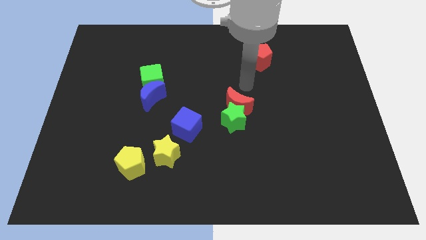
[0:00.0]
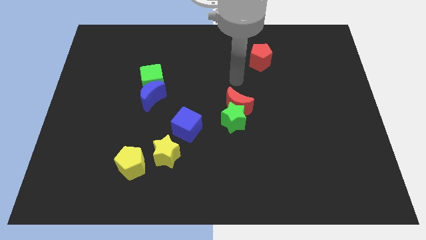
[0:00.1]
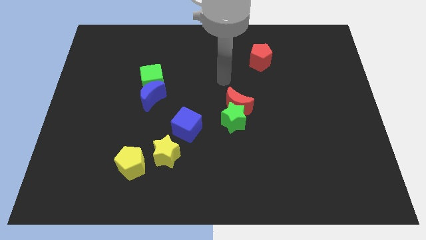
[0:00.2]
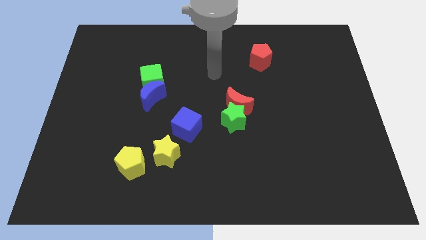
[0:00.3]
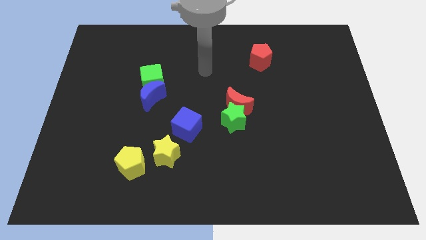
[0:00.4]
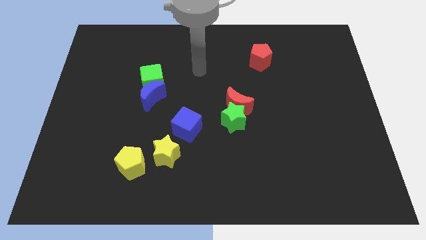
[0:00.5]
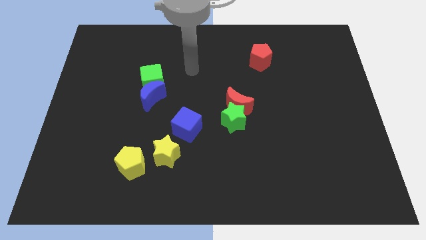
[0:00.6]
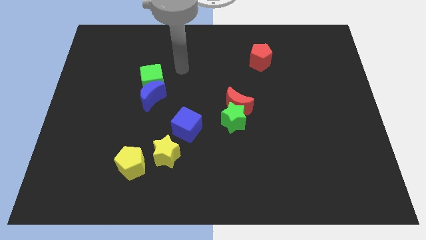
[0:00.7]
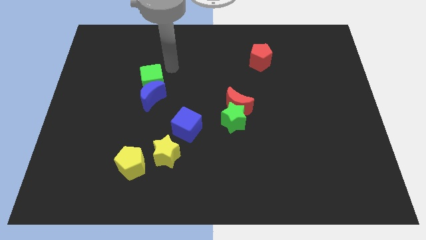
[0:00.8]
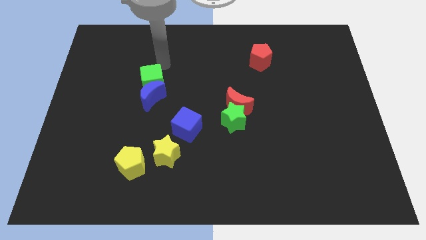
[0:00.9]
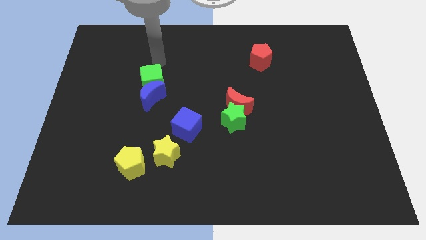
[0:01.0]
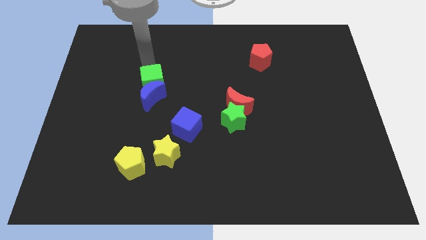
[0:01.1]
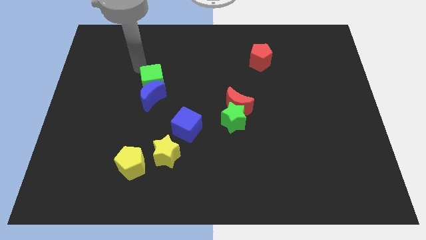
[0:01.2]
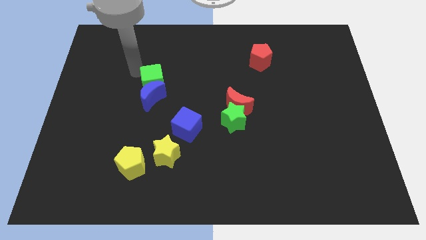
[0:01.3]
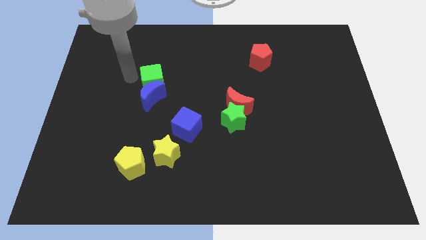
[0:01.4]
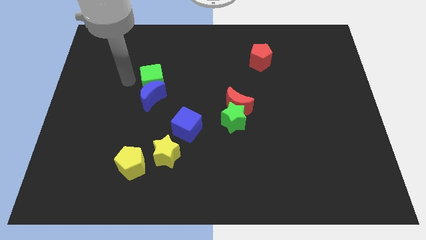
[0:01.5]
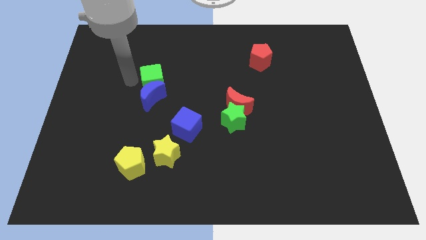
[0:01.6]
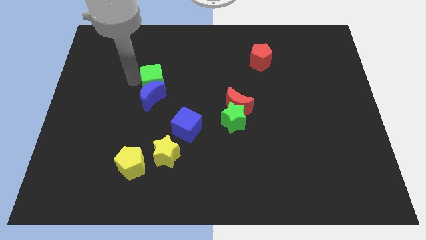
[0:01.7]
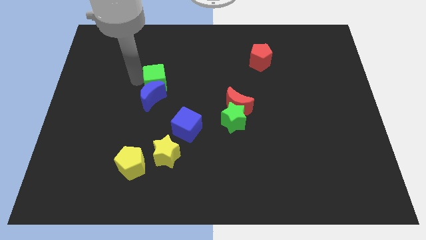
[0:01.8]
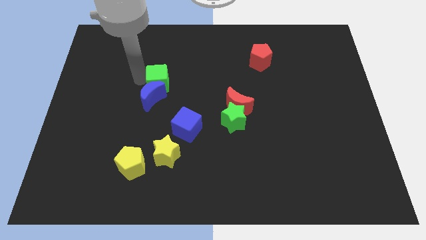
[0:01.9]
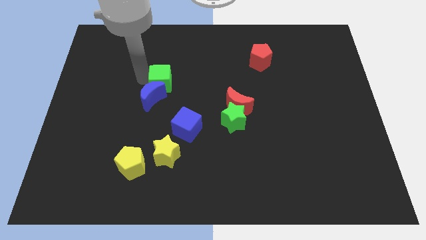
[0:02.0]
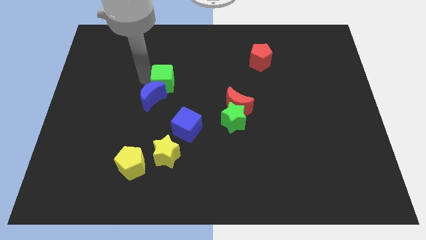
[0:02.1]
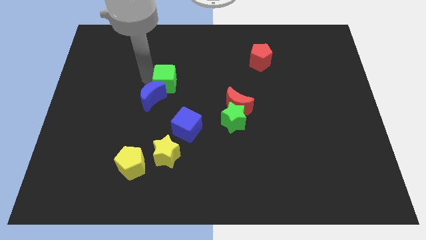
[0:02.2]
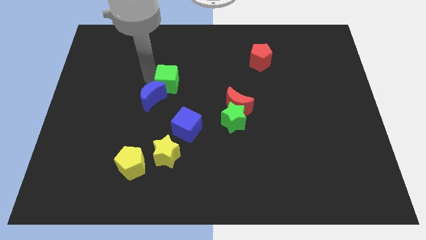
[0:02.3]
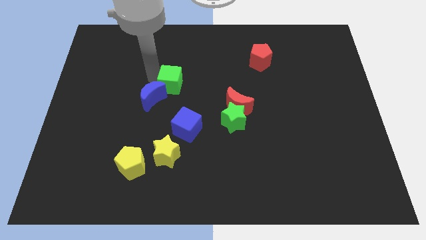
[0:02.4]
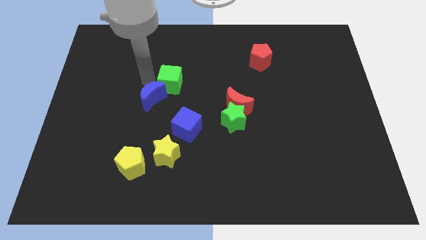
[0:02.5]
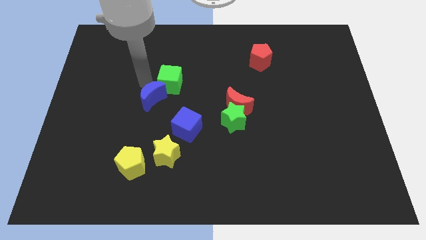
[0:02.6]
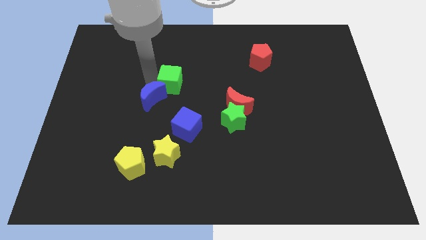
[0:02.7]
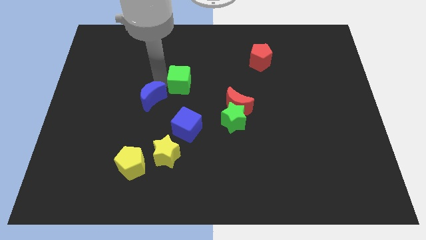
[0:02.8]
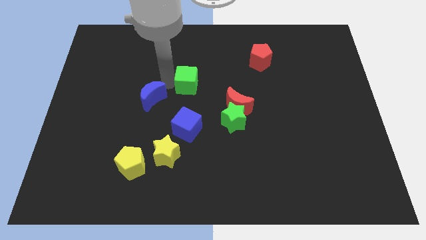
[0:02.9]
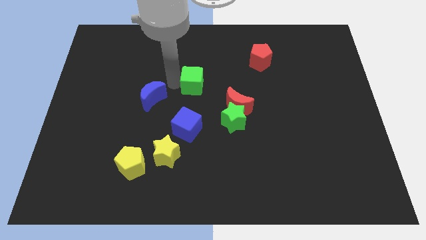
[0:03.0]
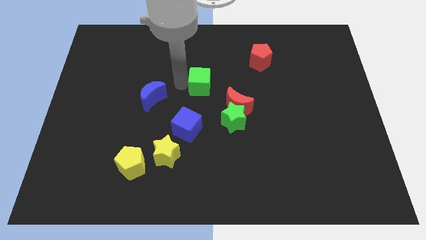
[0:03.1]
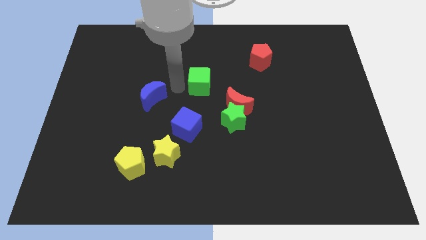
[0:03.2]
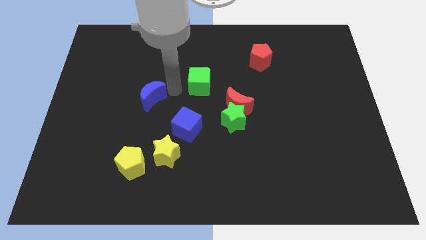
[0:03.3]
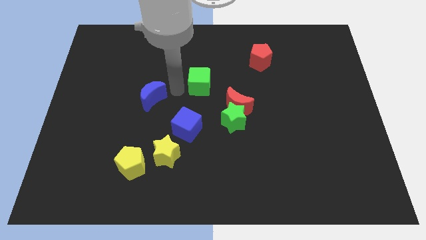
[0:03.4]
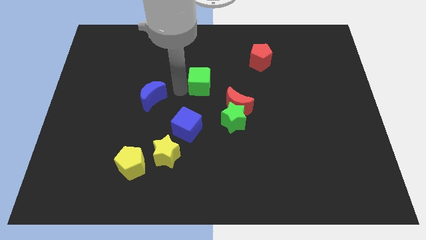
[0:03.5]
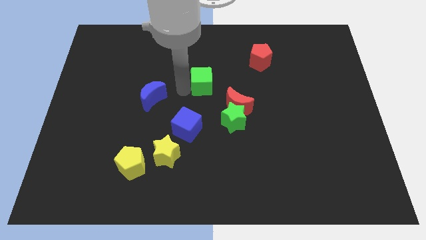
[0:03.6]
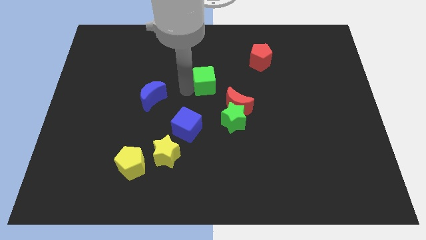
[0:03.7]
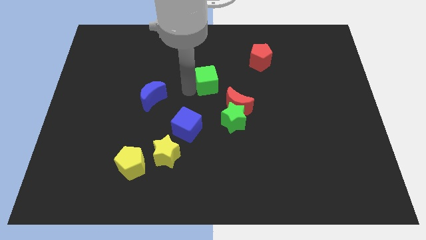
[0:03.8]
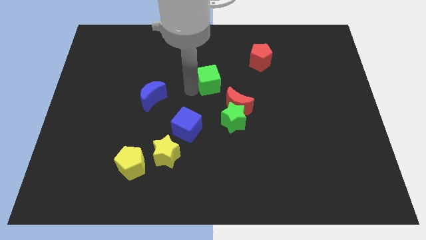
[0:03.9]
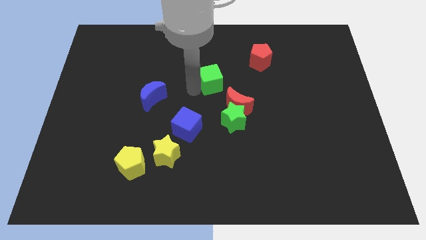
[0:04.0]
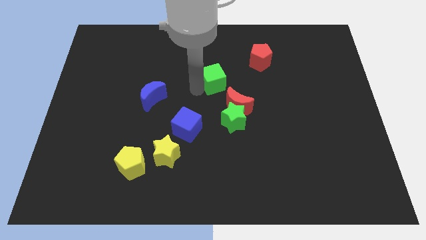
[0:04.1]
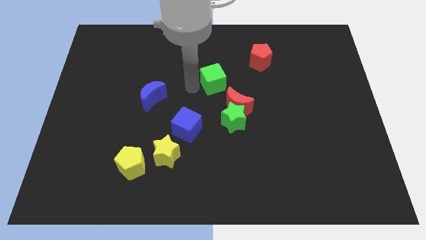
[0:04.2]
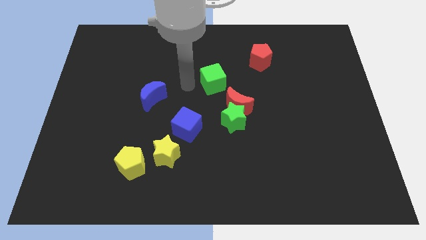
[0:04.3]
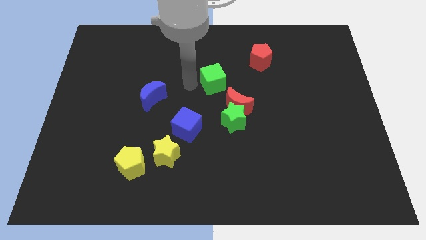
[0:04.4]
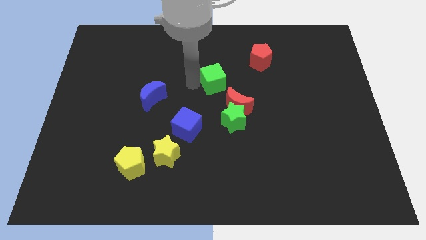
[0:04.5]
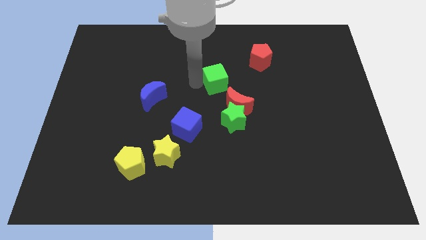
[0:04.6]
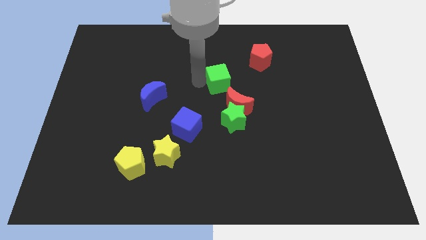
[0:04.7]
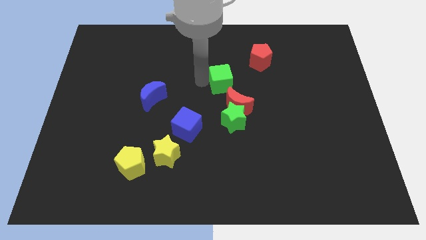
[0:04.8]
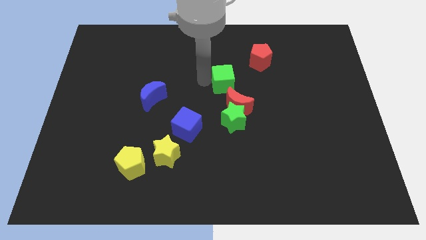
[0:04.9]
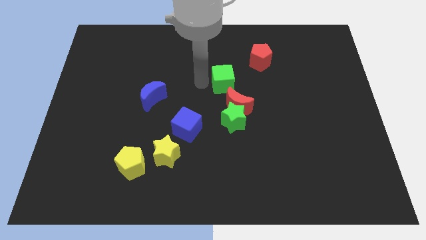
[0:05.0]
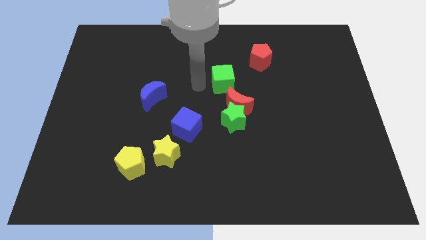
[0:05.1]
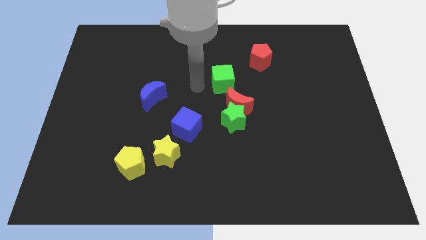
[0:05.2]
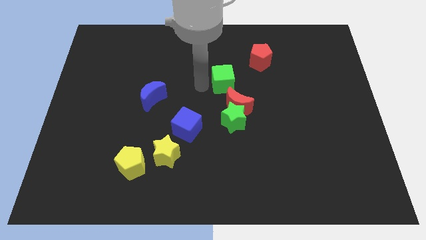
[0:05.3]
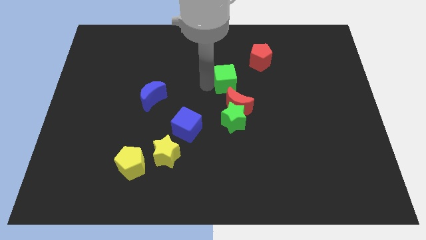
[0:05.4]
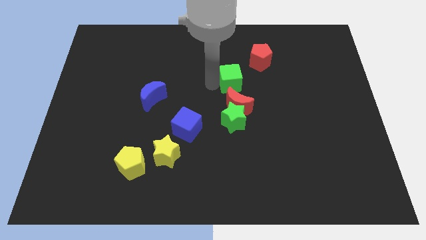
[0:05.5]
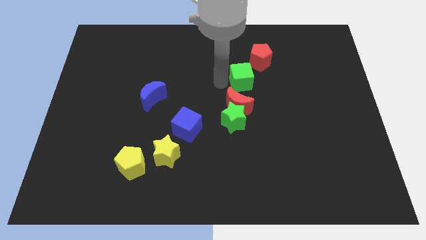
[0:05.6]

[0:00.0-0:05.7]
move the green cube right

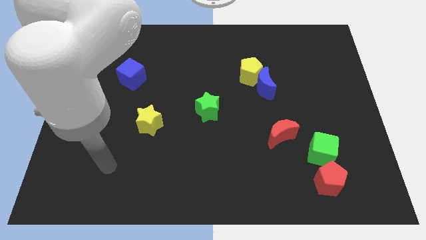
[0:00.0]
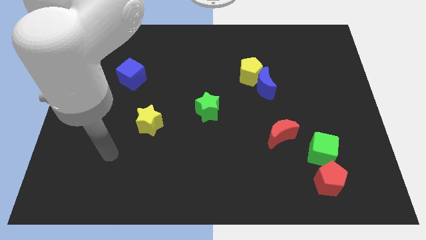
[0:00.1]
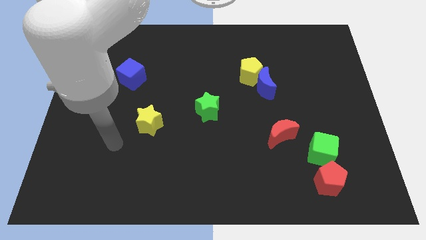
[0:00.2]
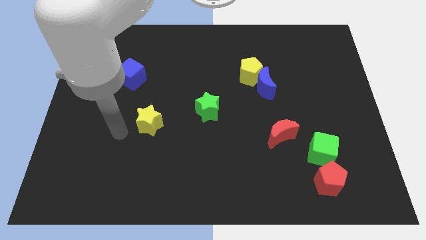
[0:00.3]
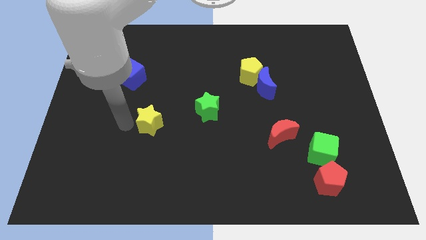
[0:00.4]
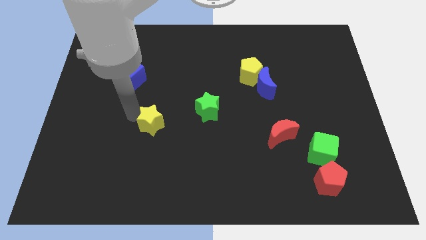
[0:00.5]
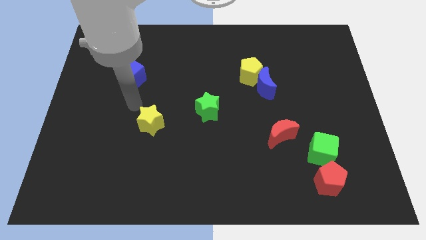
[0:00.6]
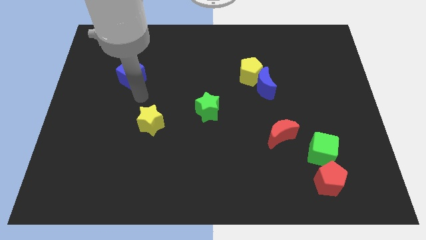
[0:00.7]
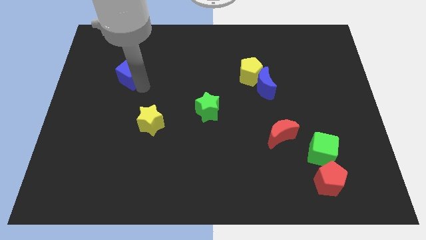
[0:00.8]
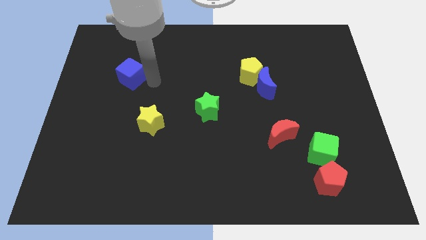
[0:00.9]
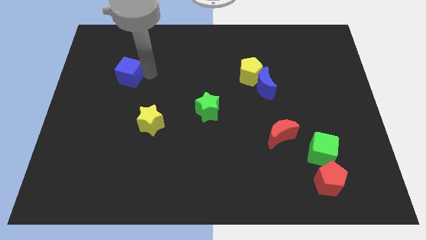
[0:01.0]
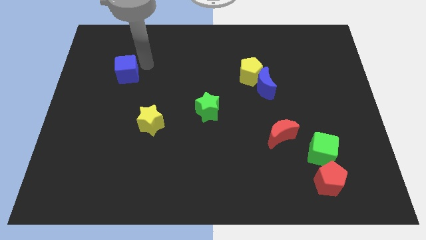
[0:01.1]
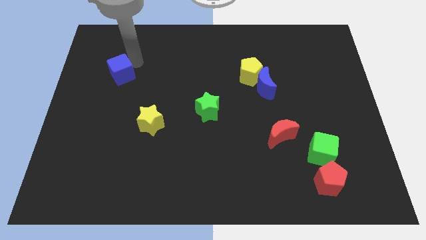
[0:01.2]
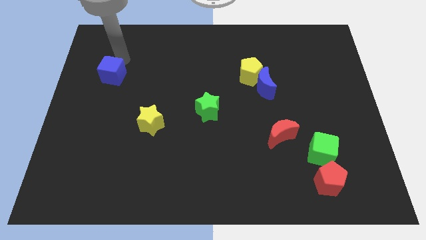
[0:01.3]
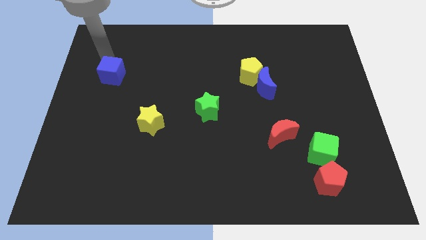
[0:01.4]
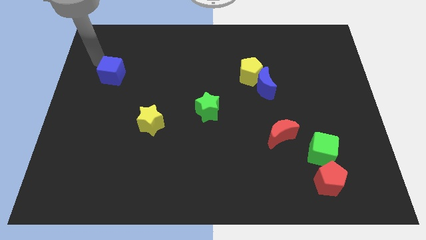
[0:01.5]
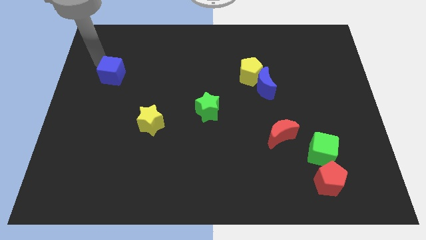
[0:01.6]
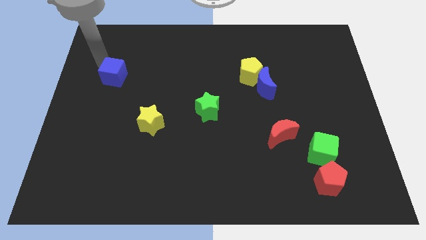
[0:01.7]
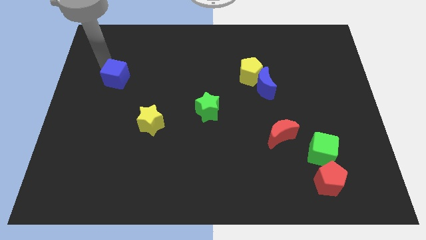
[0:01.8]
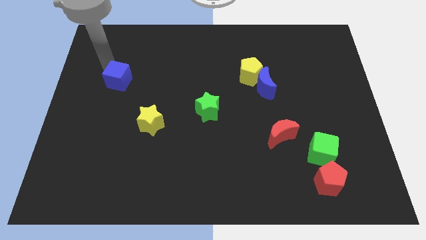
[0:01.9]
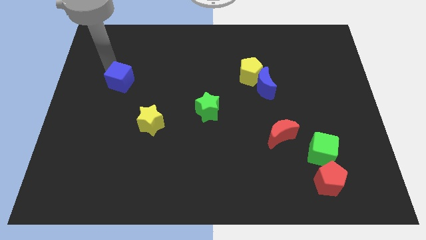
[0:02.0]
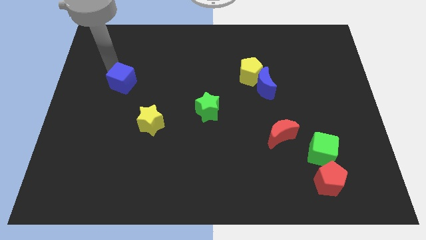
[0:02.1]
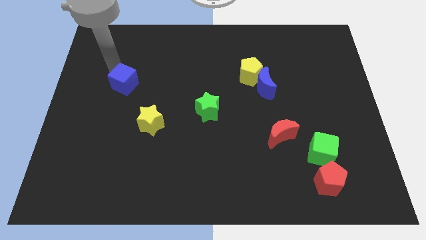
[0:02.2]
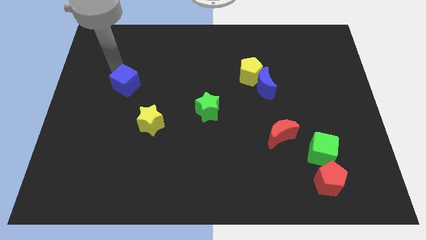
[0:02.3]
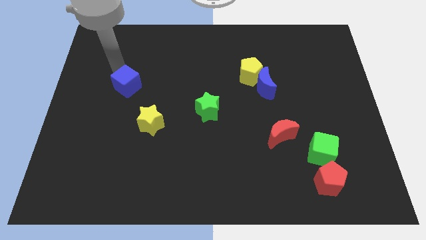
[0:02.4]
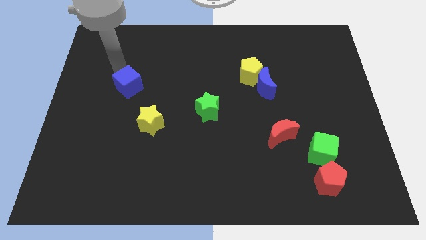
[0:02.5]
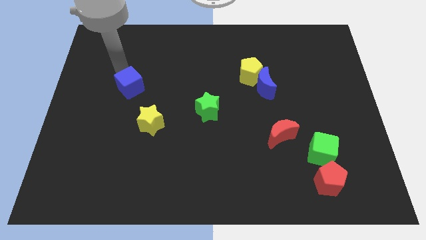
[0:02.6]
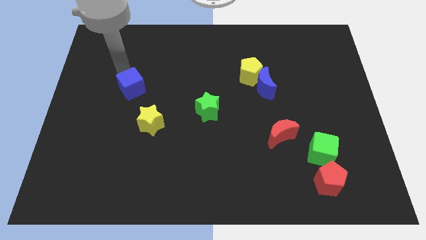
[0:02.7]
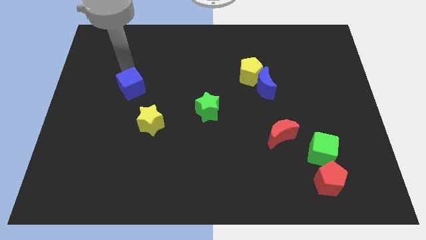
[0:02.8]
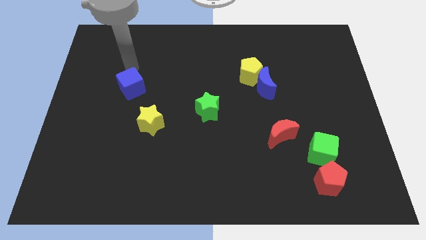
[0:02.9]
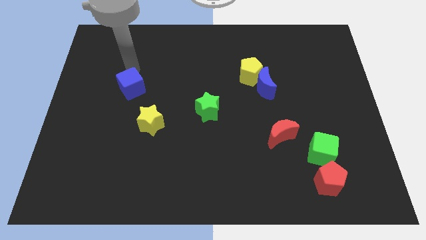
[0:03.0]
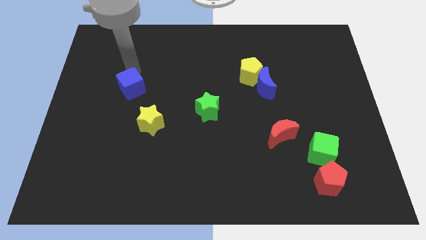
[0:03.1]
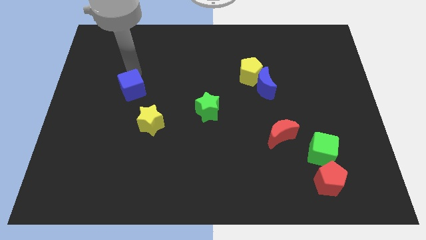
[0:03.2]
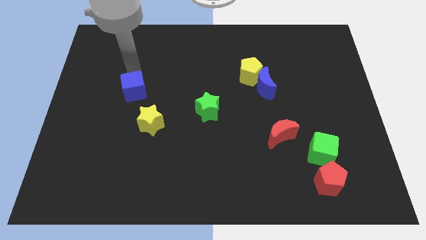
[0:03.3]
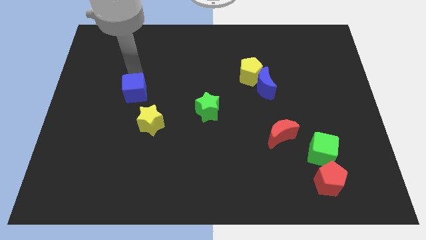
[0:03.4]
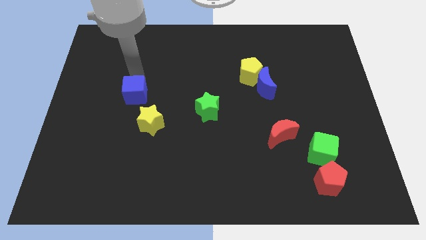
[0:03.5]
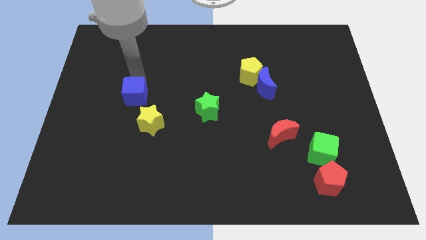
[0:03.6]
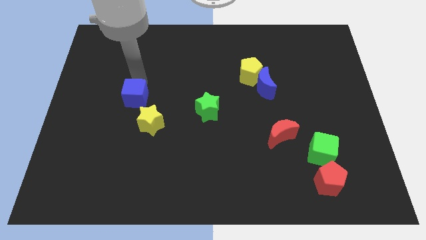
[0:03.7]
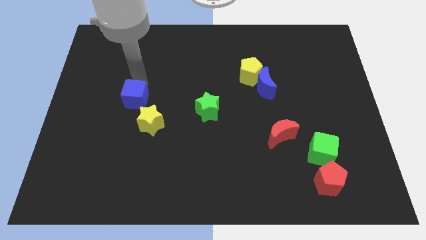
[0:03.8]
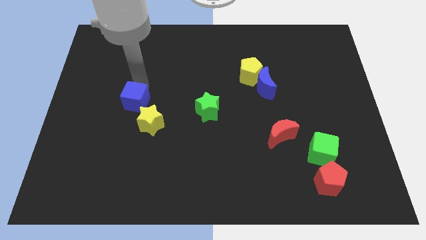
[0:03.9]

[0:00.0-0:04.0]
move the blue cube down somewhat
